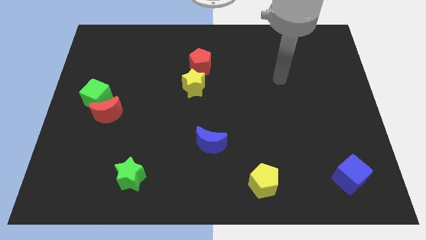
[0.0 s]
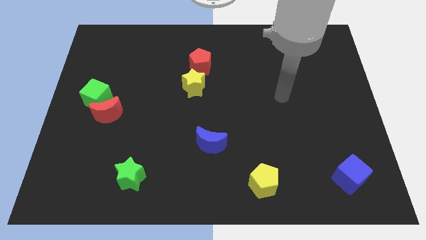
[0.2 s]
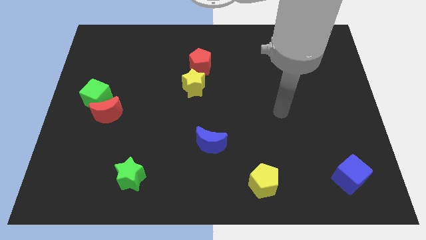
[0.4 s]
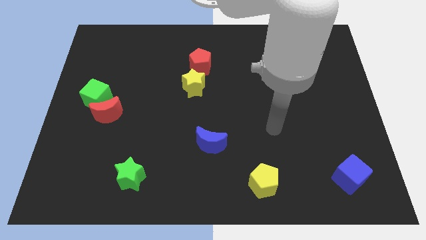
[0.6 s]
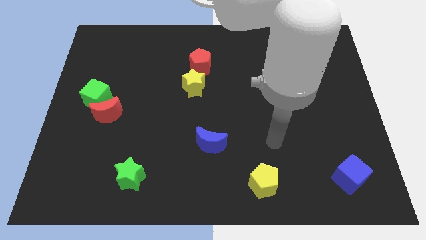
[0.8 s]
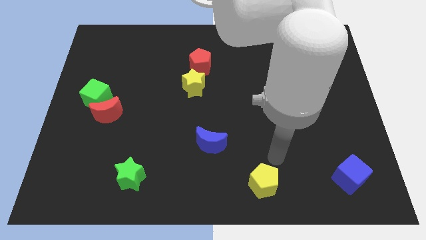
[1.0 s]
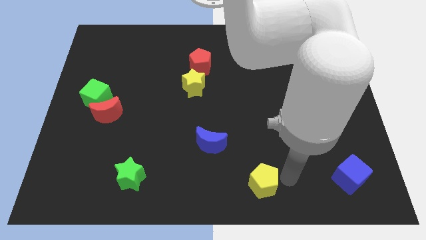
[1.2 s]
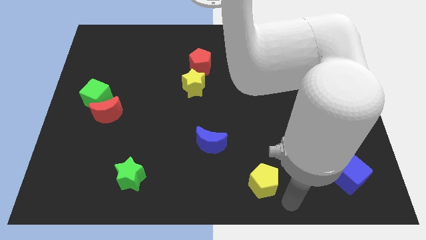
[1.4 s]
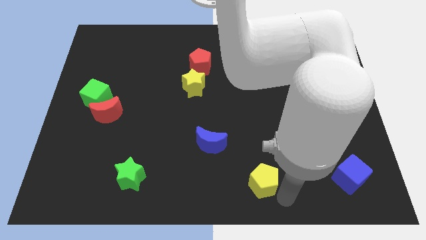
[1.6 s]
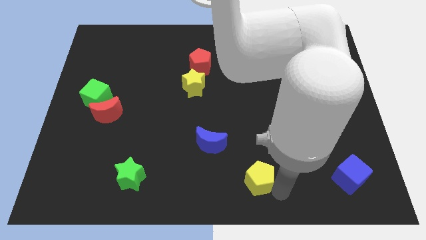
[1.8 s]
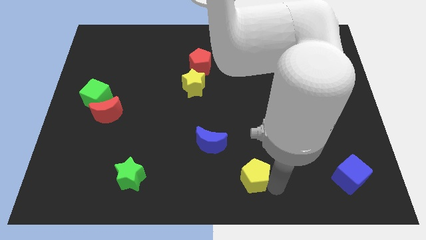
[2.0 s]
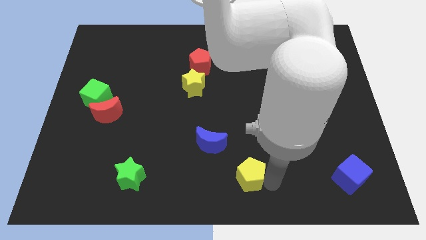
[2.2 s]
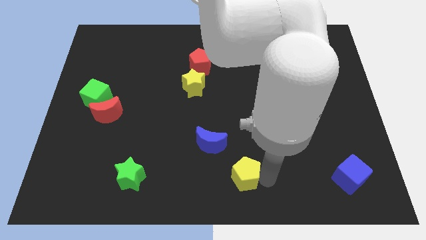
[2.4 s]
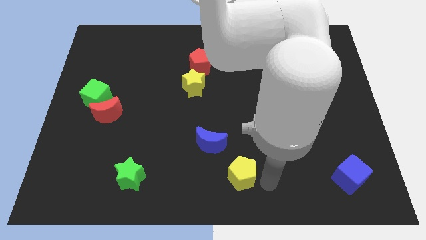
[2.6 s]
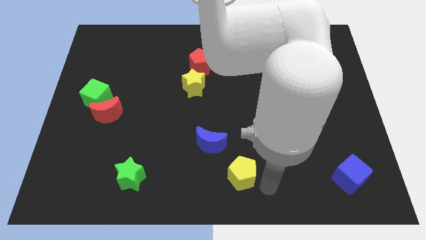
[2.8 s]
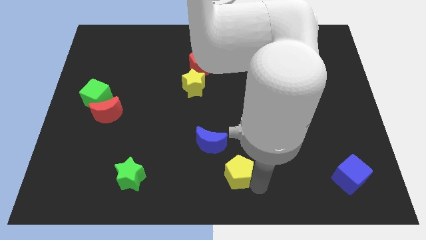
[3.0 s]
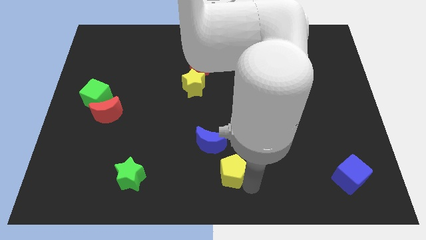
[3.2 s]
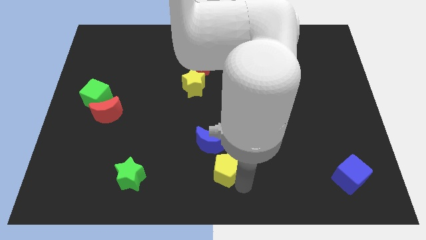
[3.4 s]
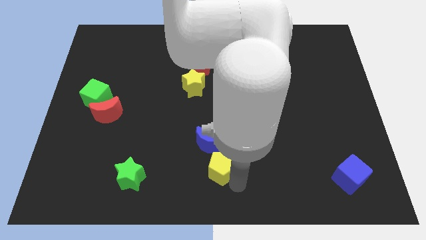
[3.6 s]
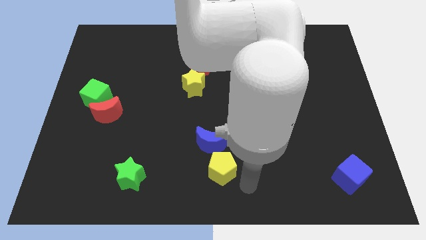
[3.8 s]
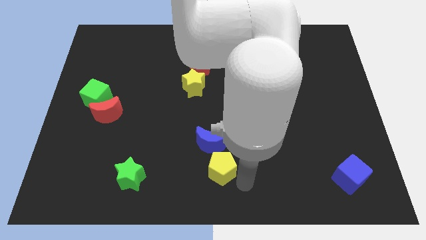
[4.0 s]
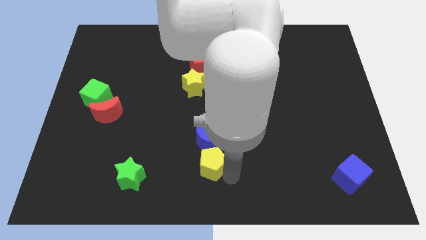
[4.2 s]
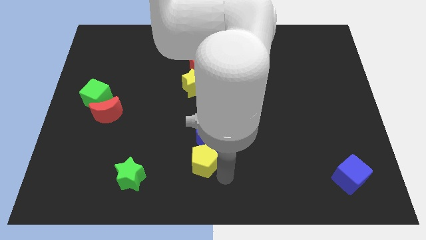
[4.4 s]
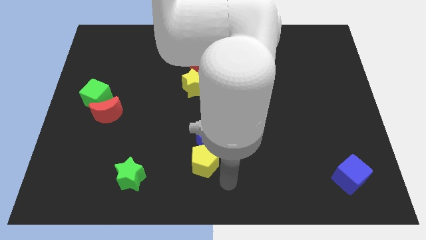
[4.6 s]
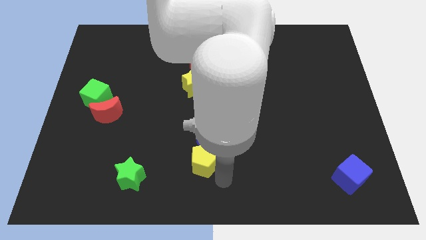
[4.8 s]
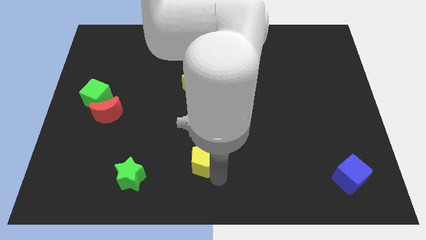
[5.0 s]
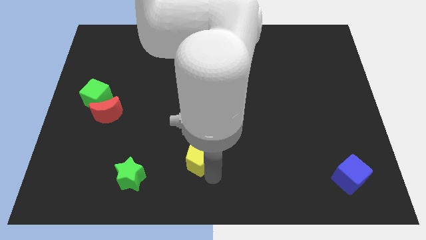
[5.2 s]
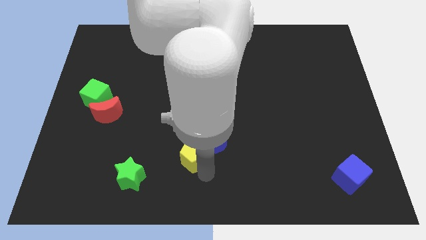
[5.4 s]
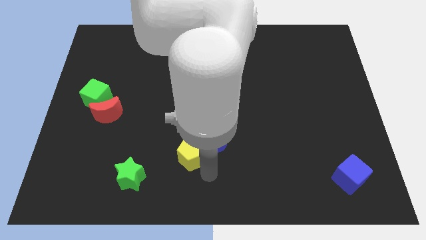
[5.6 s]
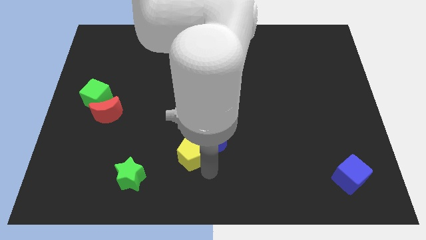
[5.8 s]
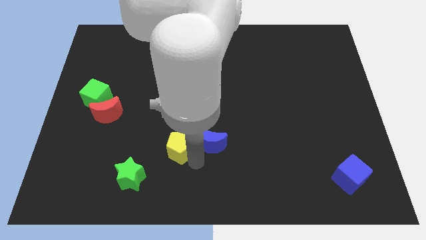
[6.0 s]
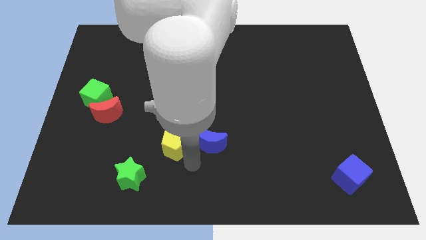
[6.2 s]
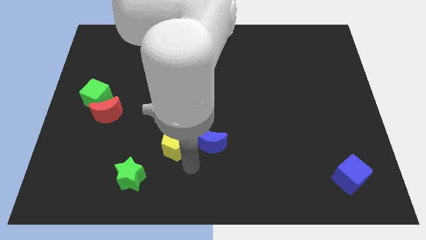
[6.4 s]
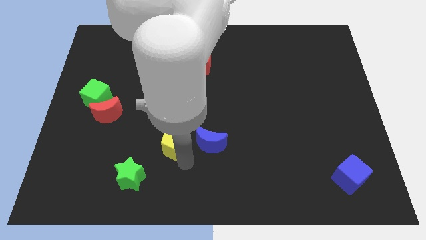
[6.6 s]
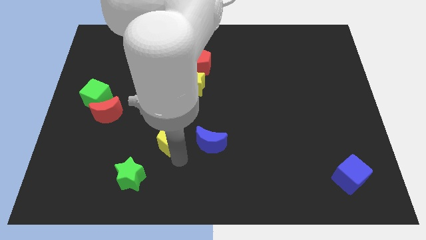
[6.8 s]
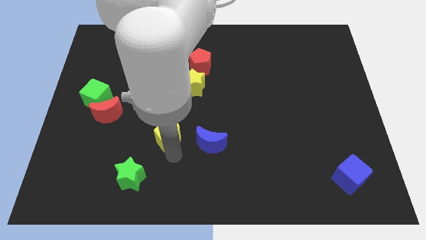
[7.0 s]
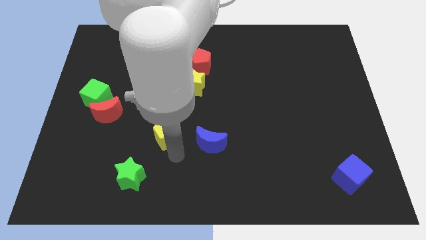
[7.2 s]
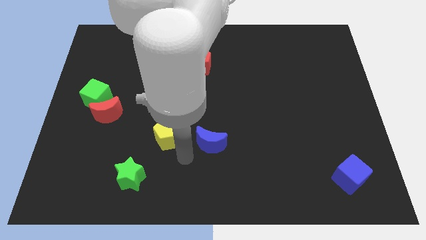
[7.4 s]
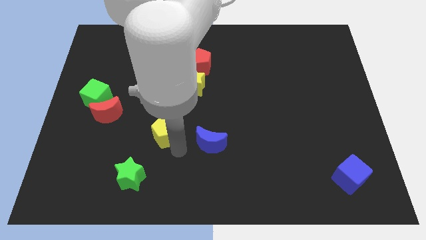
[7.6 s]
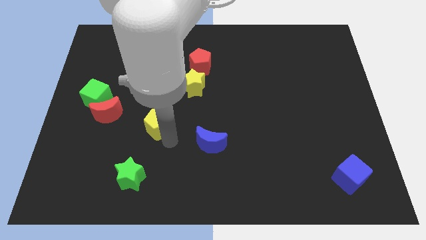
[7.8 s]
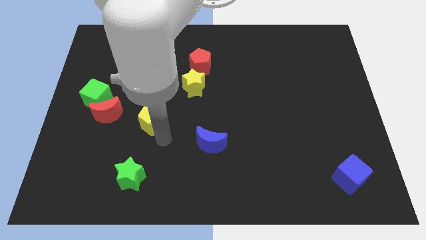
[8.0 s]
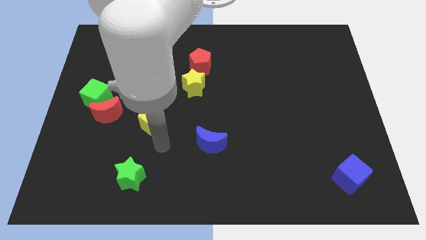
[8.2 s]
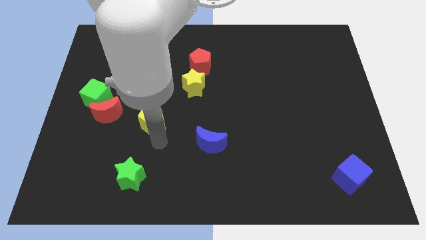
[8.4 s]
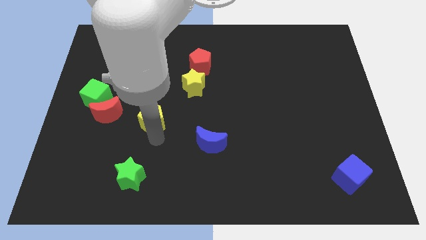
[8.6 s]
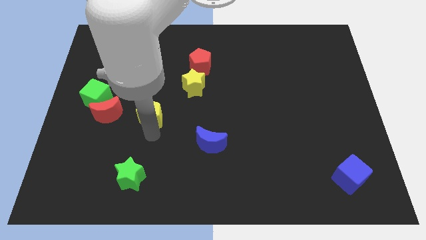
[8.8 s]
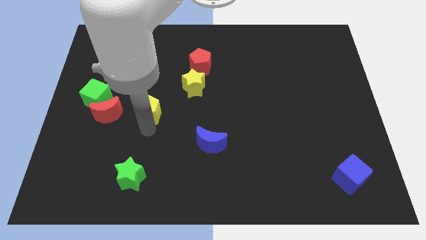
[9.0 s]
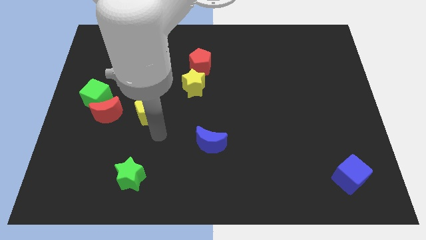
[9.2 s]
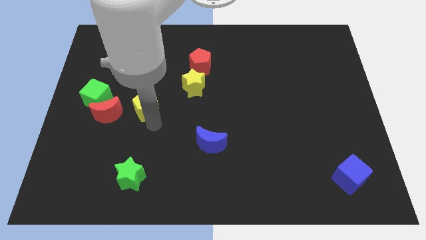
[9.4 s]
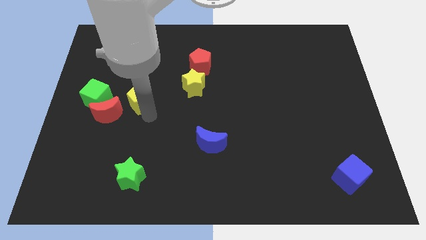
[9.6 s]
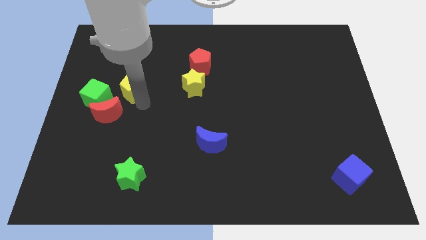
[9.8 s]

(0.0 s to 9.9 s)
move the yellow pentagon diagonally up and to the right of the green cube

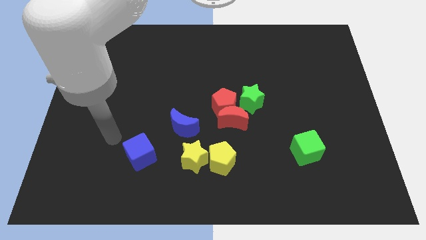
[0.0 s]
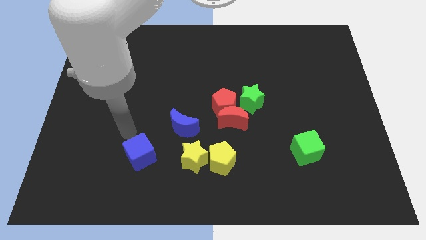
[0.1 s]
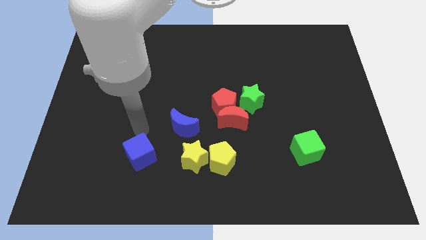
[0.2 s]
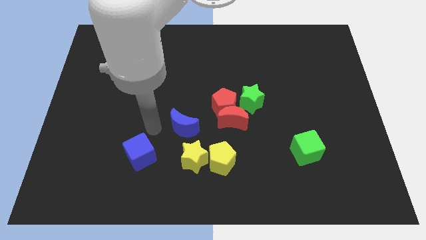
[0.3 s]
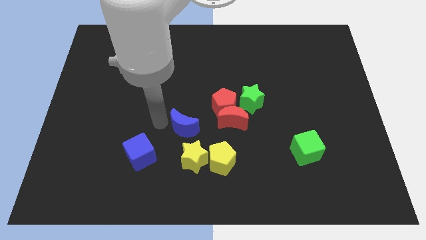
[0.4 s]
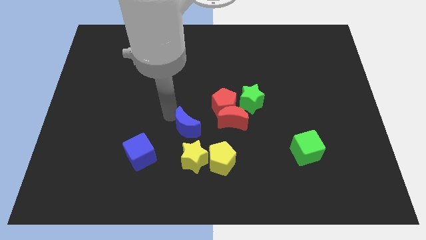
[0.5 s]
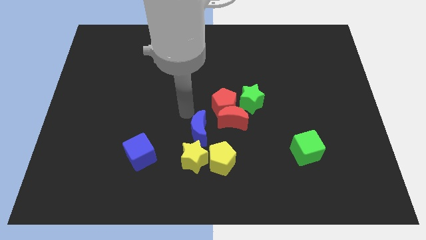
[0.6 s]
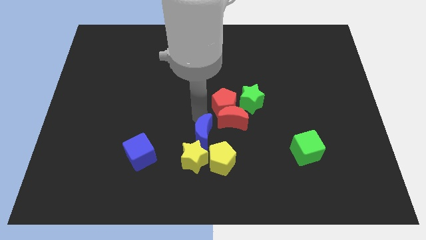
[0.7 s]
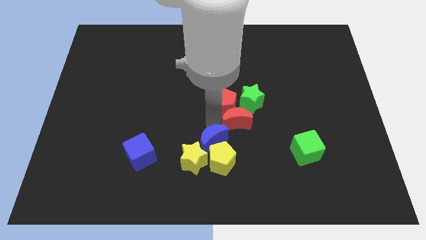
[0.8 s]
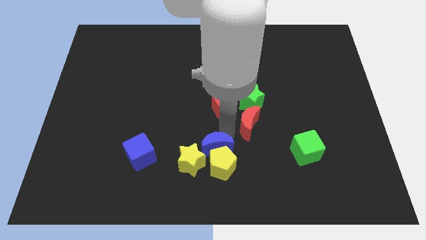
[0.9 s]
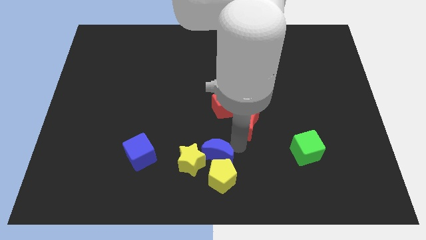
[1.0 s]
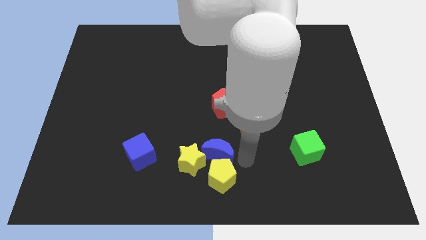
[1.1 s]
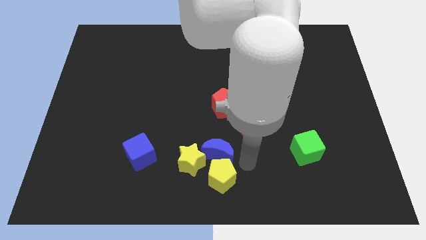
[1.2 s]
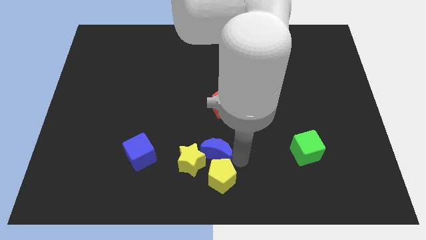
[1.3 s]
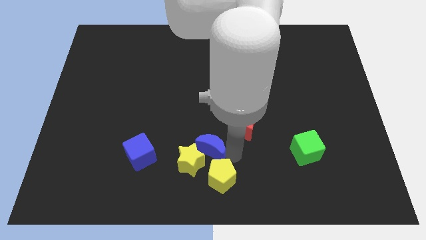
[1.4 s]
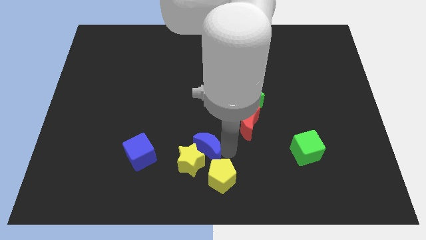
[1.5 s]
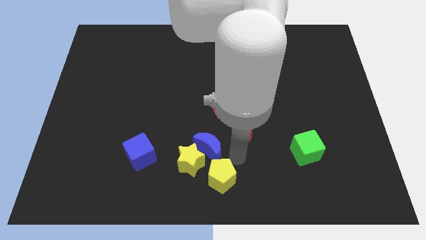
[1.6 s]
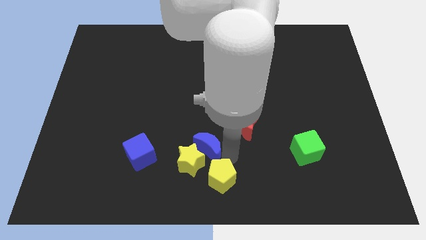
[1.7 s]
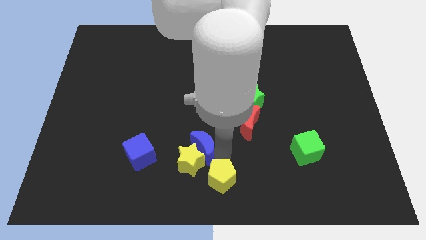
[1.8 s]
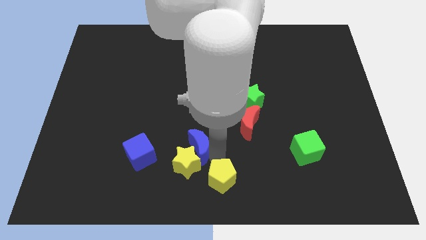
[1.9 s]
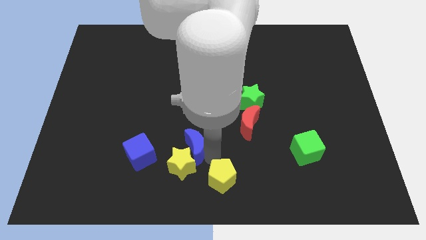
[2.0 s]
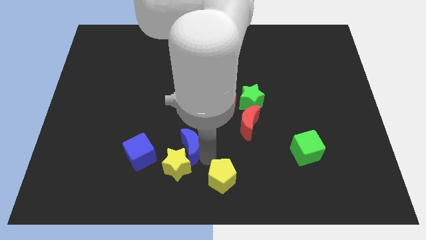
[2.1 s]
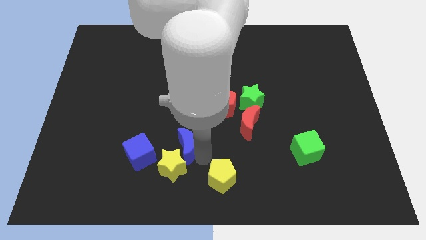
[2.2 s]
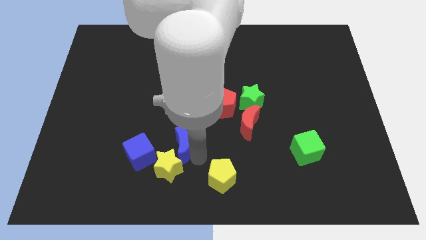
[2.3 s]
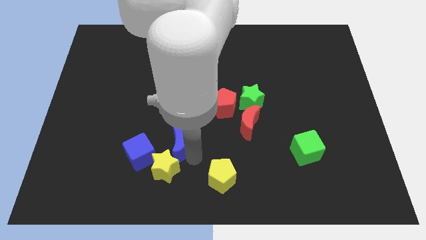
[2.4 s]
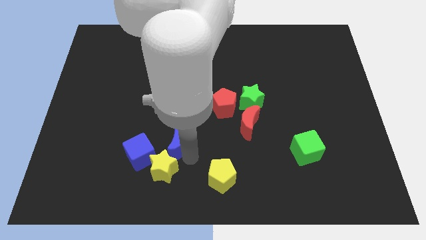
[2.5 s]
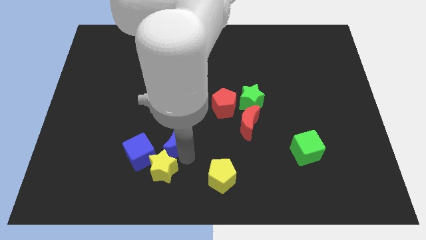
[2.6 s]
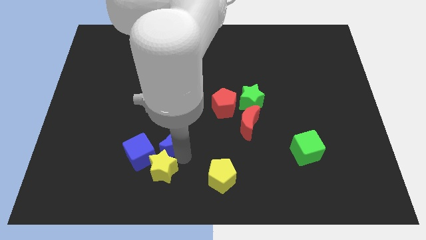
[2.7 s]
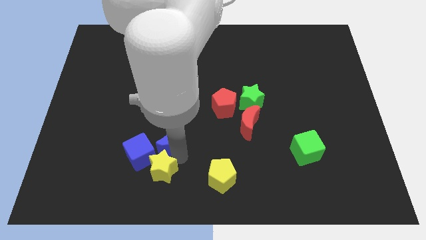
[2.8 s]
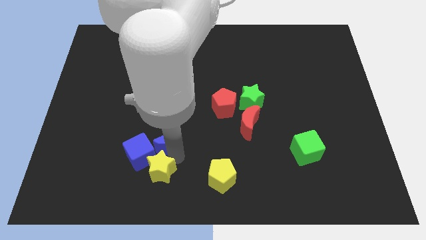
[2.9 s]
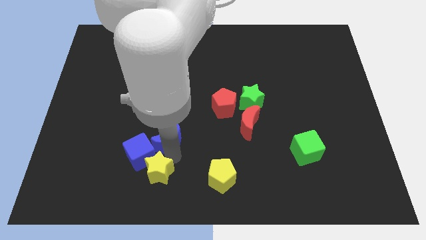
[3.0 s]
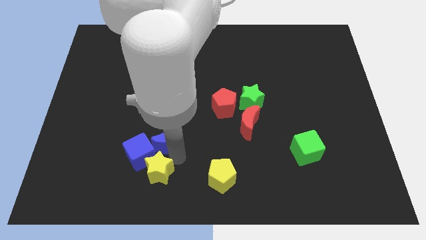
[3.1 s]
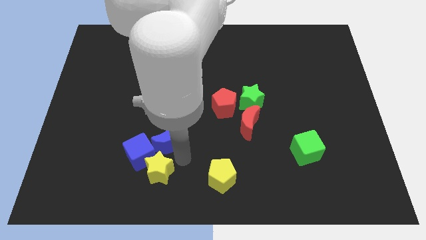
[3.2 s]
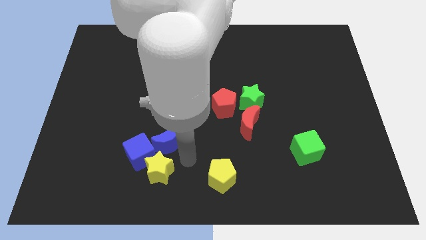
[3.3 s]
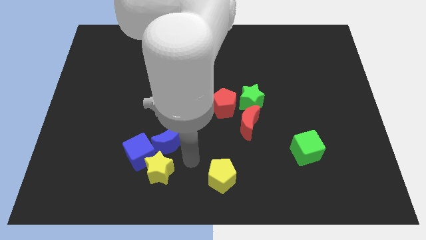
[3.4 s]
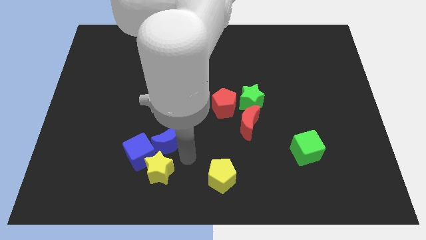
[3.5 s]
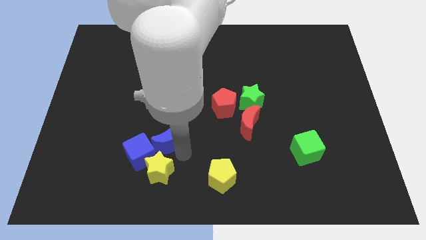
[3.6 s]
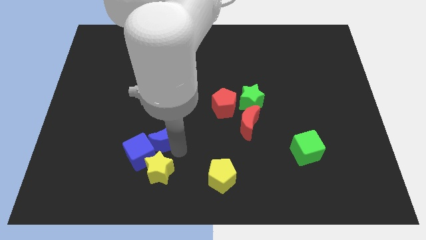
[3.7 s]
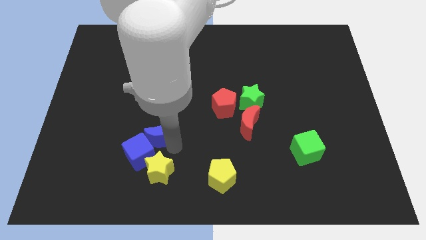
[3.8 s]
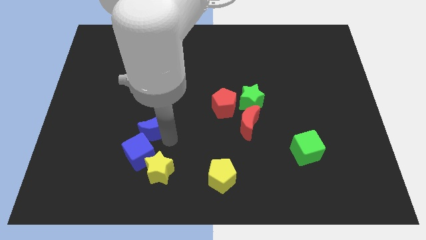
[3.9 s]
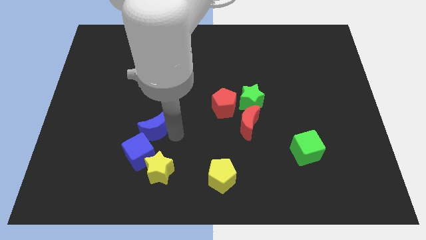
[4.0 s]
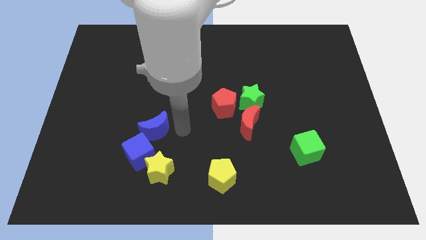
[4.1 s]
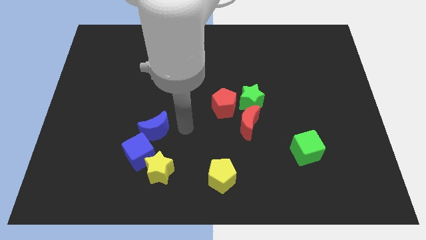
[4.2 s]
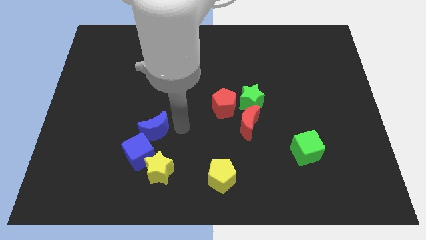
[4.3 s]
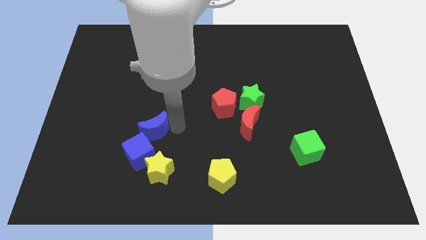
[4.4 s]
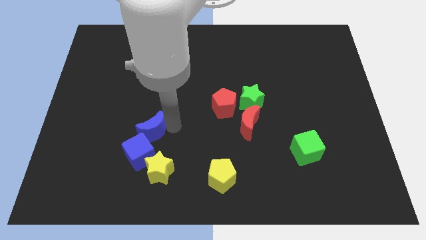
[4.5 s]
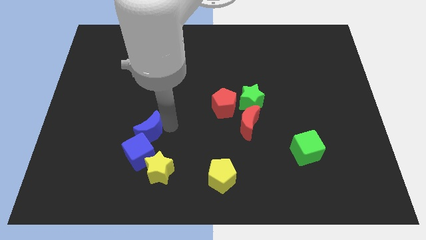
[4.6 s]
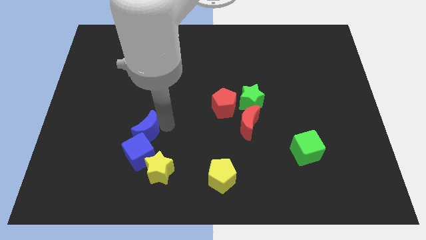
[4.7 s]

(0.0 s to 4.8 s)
move the blue moon to the top left of the blue cube
